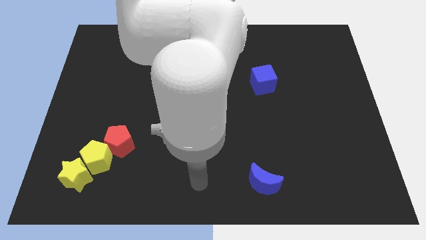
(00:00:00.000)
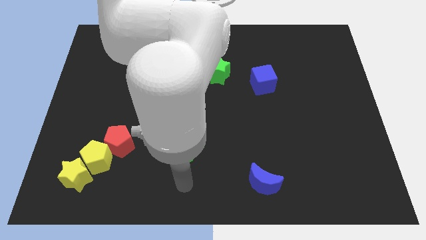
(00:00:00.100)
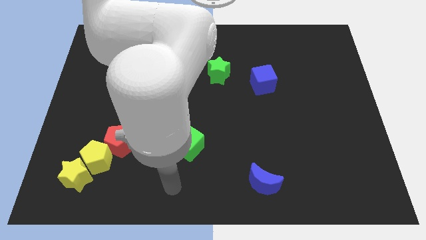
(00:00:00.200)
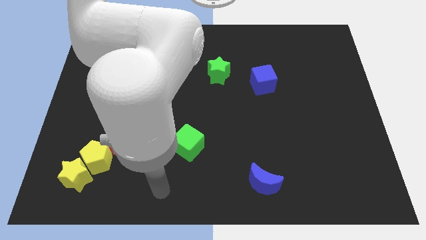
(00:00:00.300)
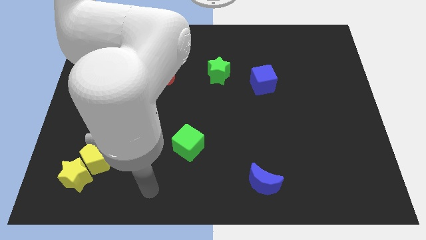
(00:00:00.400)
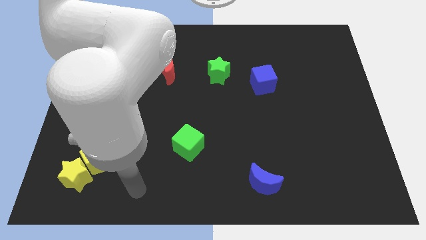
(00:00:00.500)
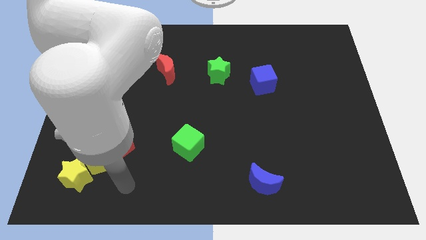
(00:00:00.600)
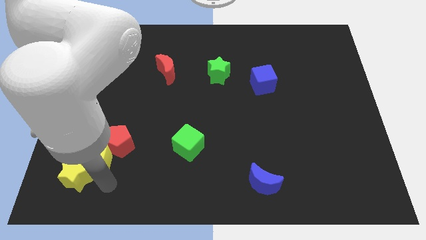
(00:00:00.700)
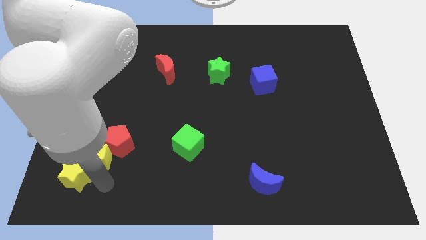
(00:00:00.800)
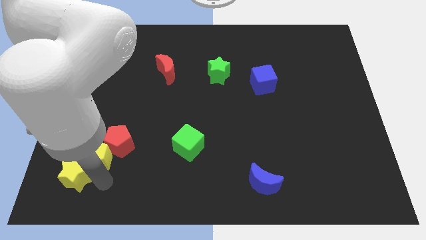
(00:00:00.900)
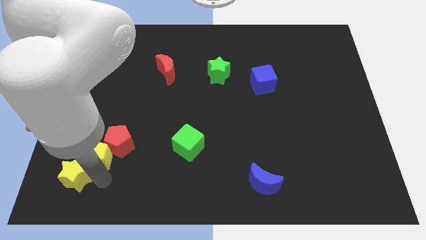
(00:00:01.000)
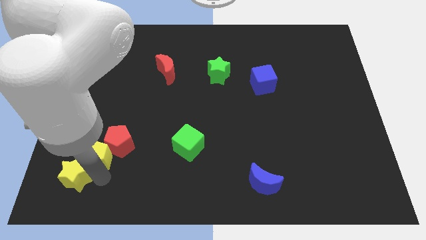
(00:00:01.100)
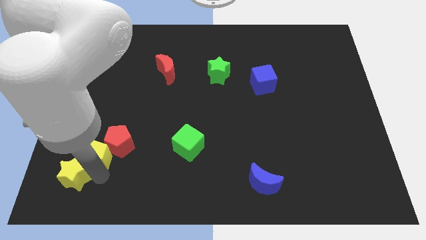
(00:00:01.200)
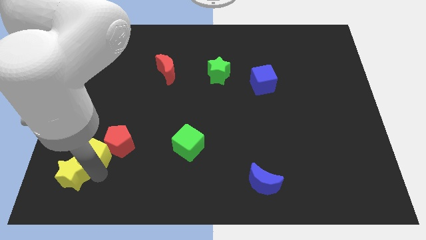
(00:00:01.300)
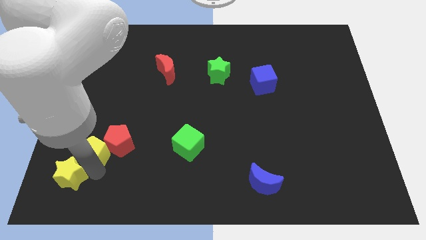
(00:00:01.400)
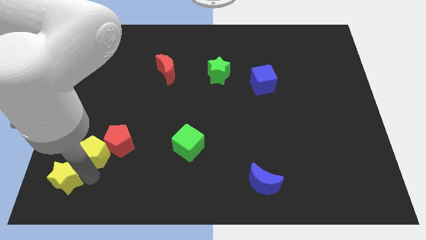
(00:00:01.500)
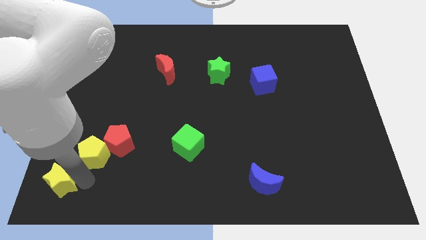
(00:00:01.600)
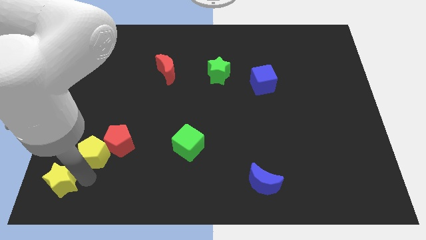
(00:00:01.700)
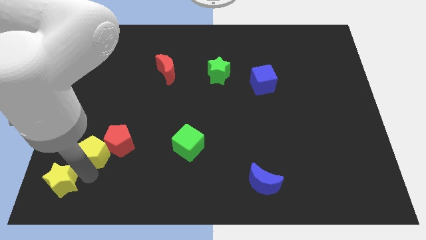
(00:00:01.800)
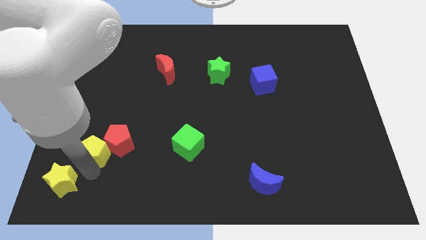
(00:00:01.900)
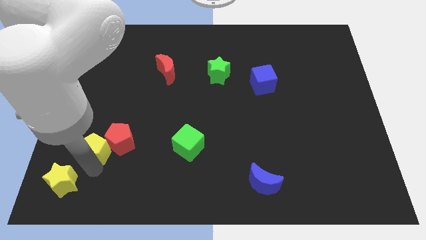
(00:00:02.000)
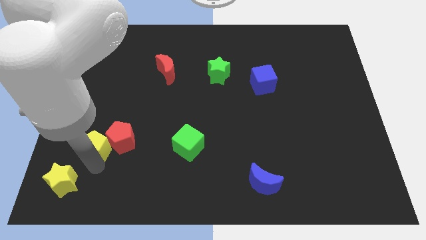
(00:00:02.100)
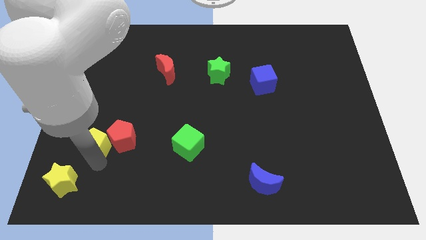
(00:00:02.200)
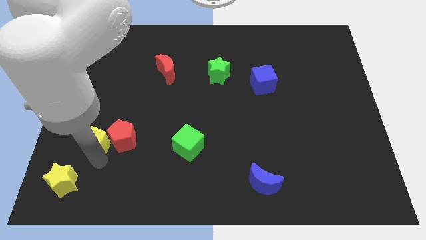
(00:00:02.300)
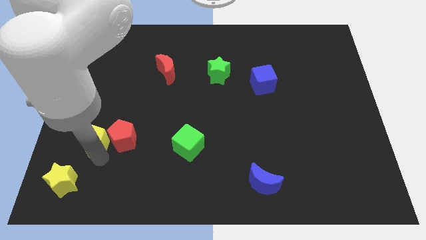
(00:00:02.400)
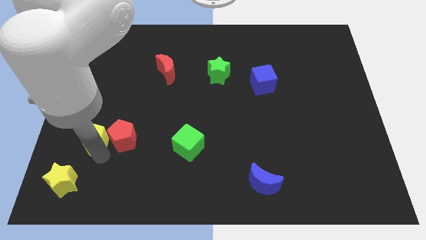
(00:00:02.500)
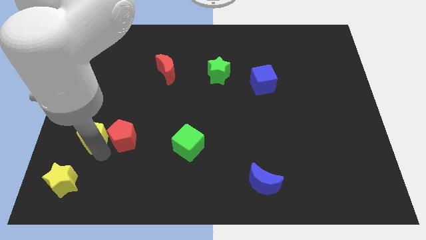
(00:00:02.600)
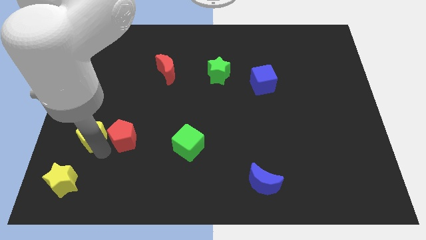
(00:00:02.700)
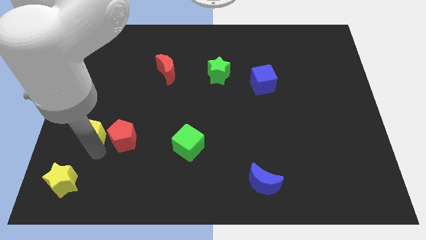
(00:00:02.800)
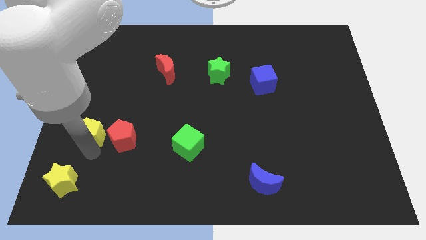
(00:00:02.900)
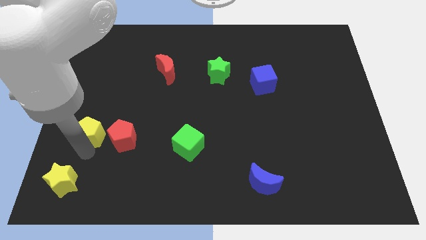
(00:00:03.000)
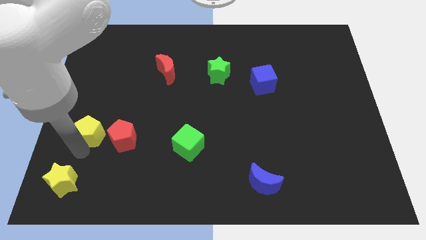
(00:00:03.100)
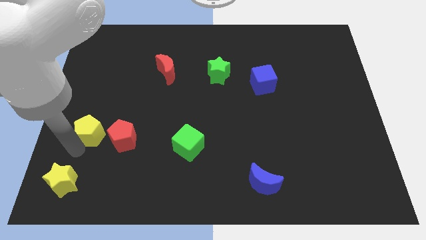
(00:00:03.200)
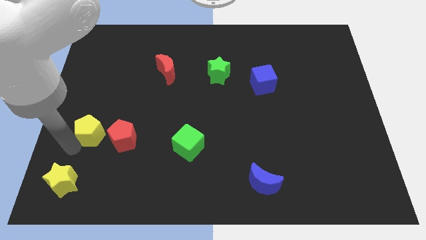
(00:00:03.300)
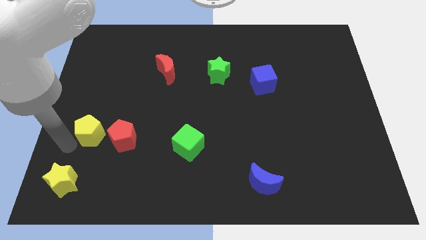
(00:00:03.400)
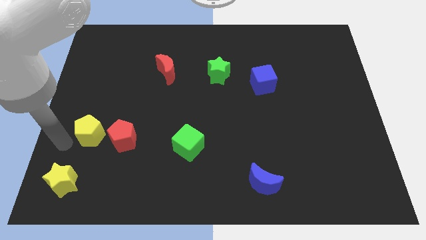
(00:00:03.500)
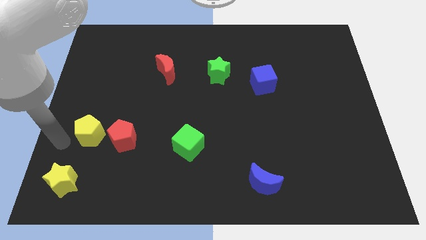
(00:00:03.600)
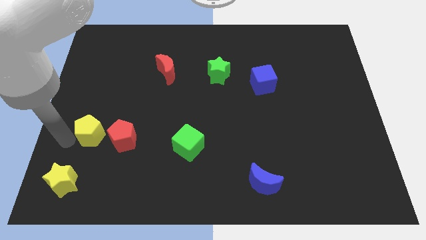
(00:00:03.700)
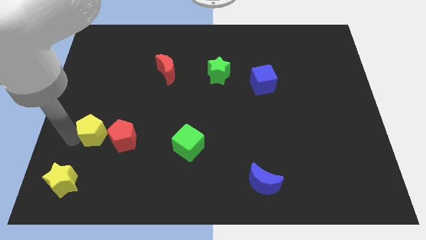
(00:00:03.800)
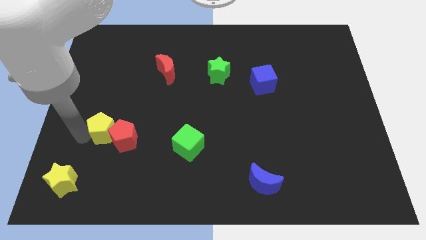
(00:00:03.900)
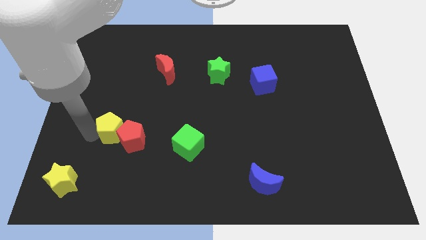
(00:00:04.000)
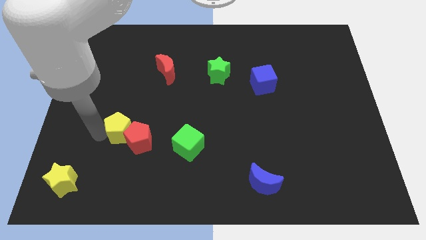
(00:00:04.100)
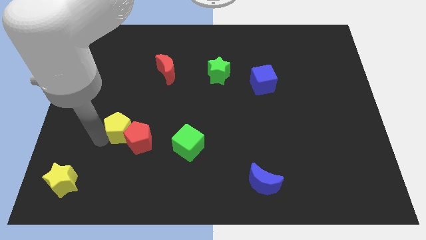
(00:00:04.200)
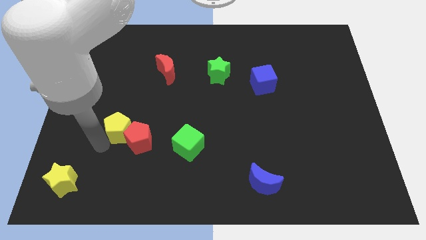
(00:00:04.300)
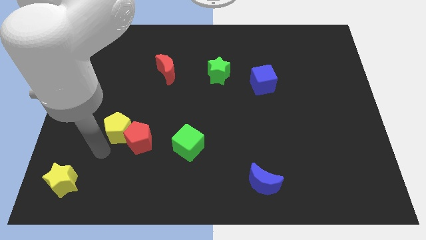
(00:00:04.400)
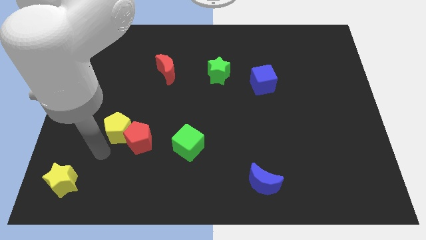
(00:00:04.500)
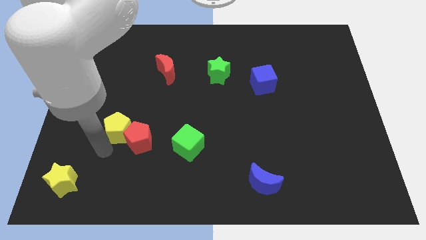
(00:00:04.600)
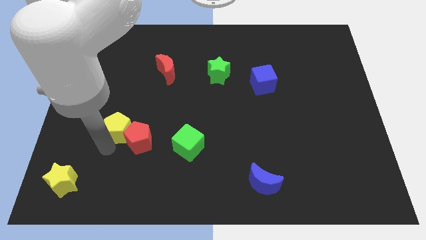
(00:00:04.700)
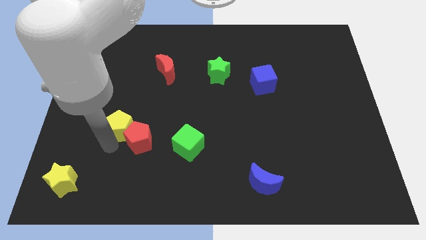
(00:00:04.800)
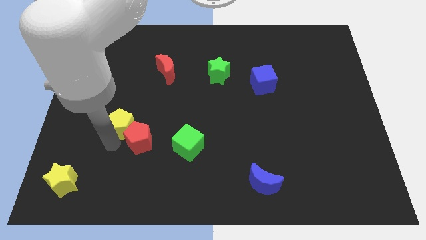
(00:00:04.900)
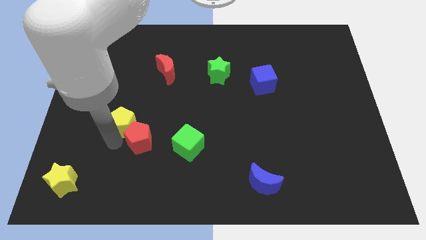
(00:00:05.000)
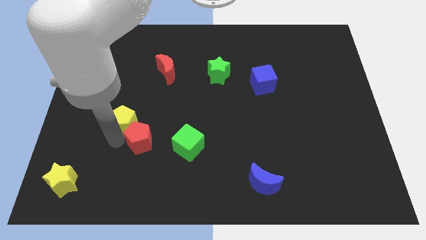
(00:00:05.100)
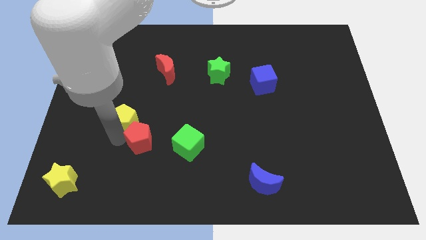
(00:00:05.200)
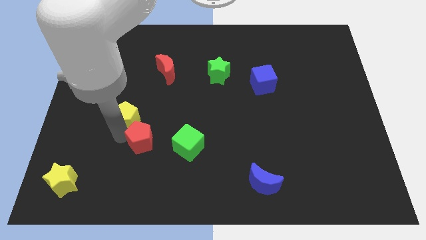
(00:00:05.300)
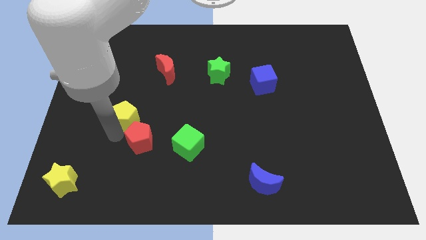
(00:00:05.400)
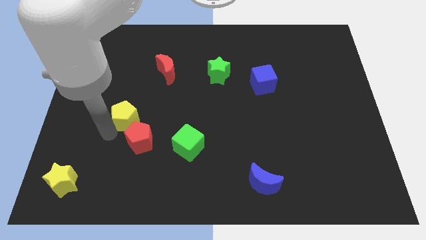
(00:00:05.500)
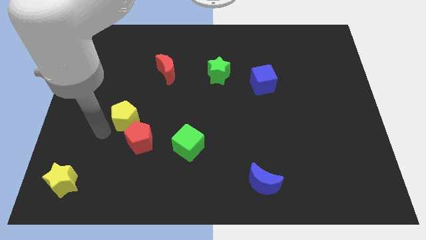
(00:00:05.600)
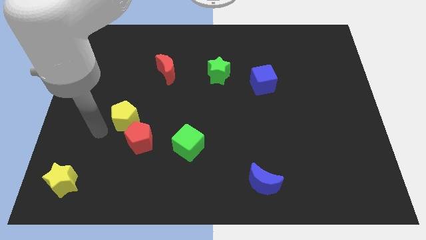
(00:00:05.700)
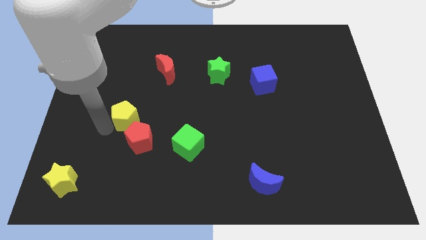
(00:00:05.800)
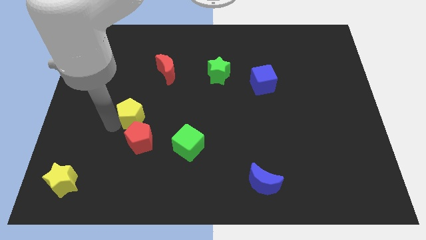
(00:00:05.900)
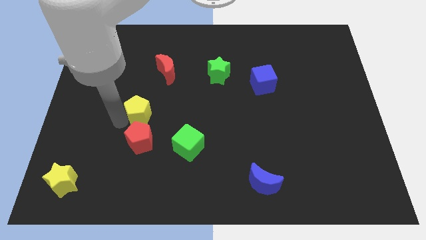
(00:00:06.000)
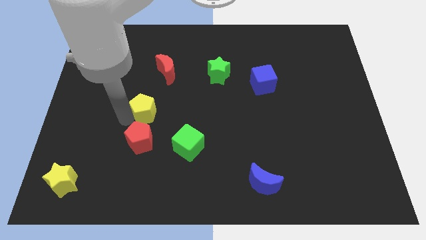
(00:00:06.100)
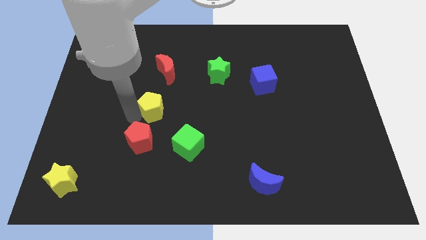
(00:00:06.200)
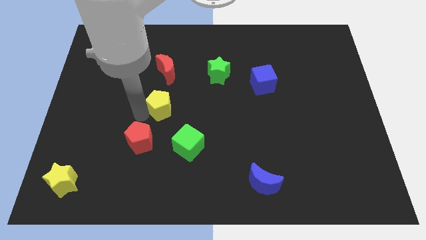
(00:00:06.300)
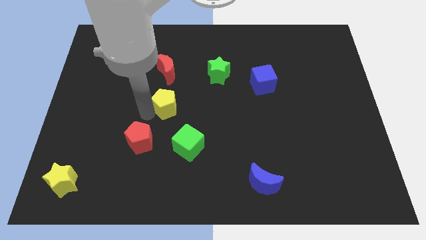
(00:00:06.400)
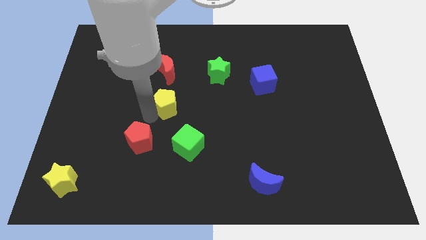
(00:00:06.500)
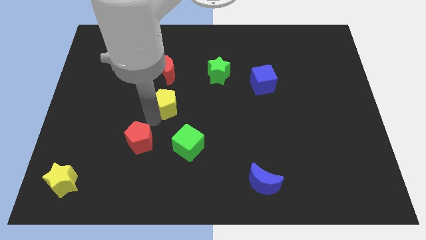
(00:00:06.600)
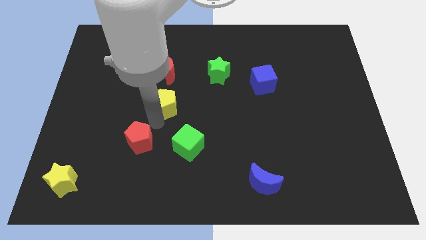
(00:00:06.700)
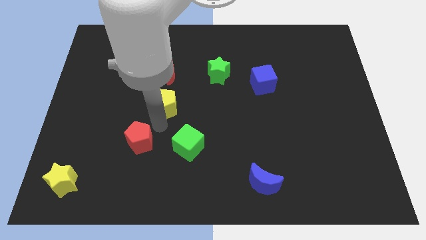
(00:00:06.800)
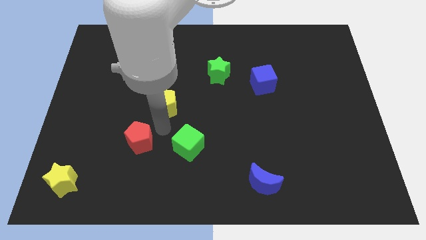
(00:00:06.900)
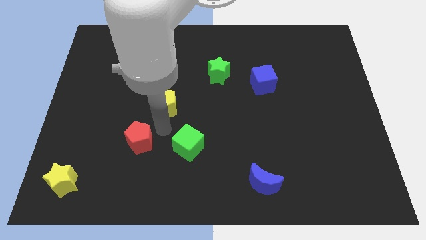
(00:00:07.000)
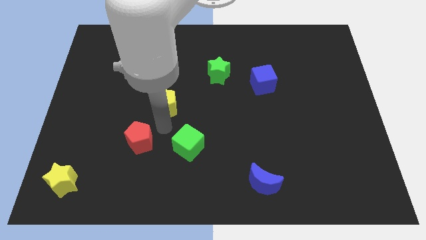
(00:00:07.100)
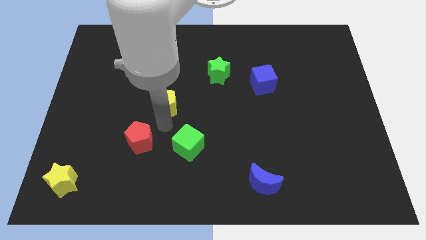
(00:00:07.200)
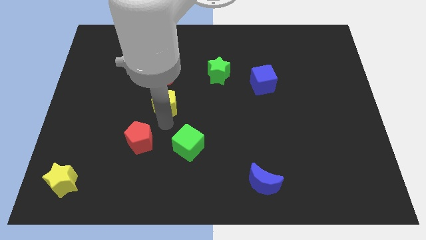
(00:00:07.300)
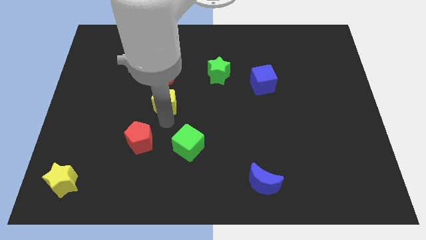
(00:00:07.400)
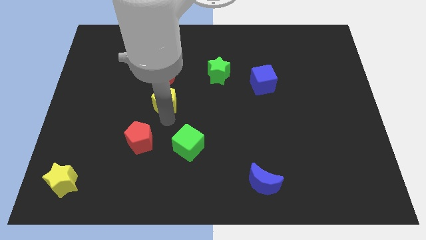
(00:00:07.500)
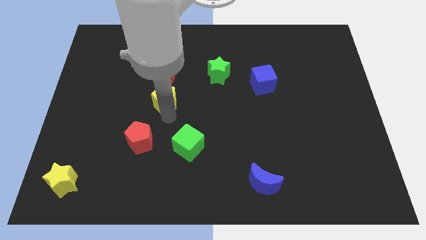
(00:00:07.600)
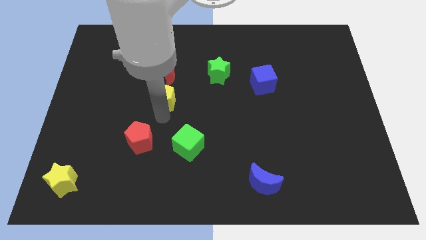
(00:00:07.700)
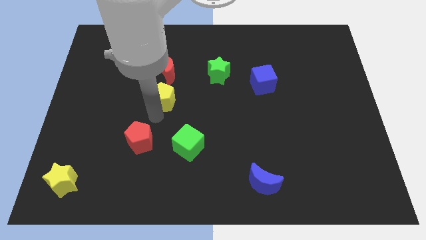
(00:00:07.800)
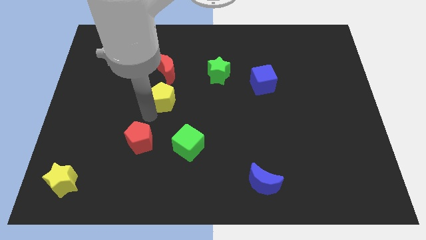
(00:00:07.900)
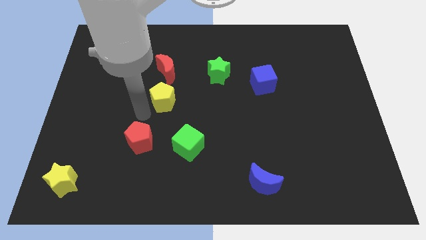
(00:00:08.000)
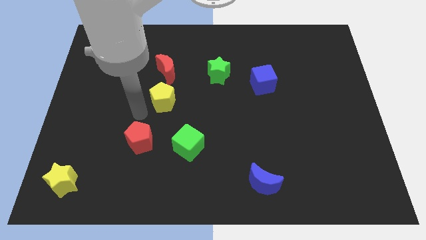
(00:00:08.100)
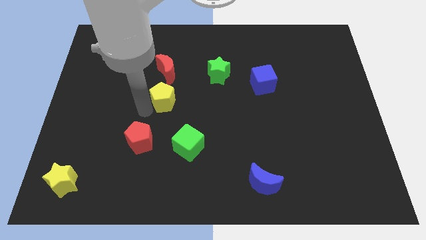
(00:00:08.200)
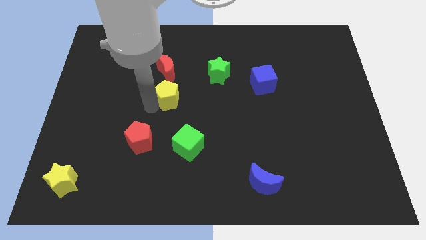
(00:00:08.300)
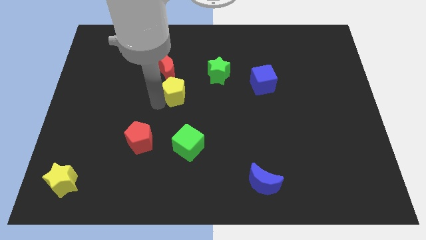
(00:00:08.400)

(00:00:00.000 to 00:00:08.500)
move the yellow pentagon diagonally down and to the right of the red moon
